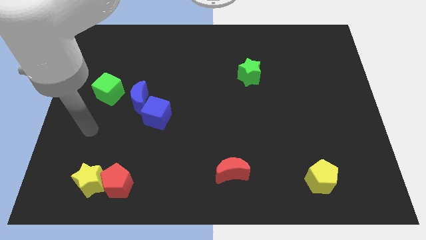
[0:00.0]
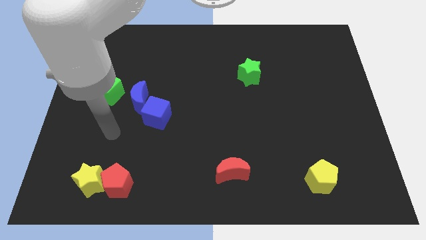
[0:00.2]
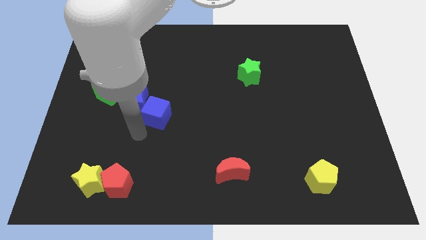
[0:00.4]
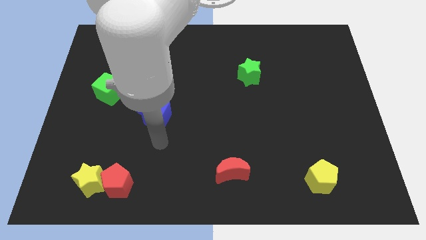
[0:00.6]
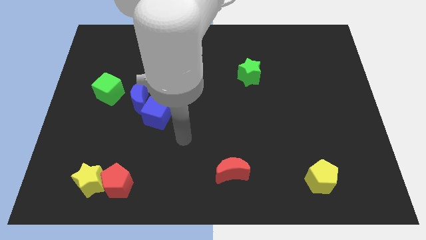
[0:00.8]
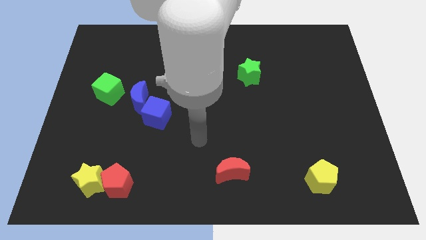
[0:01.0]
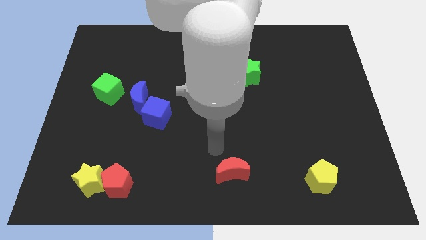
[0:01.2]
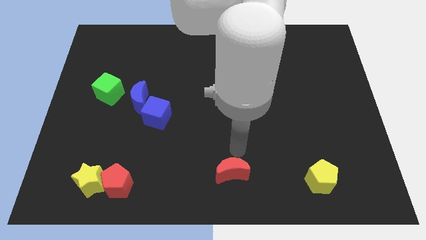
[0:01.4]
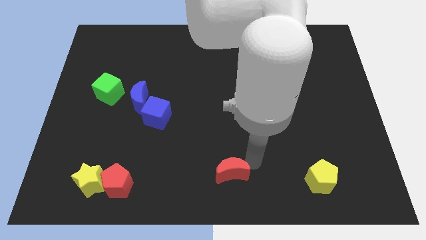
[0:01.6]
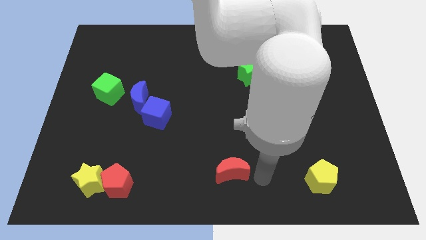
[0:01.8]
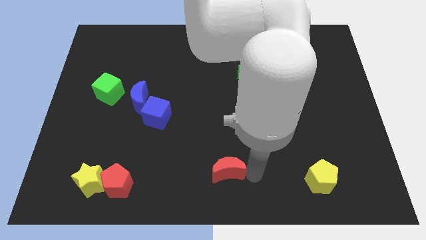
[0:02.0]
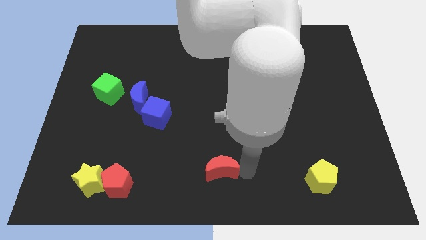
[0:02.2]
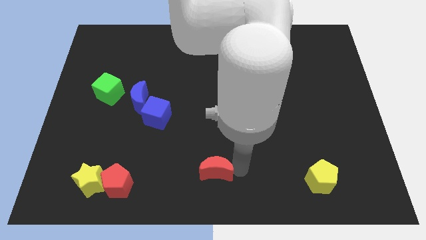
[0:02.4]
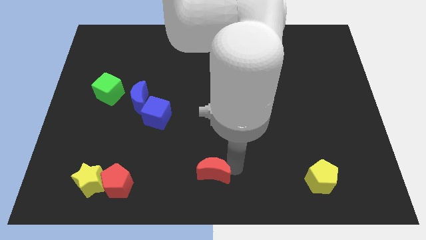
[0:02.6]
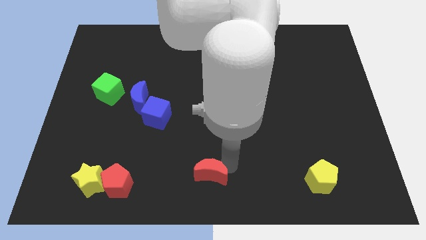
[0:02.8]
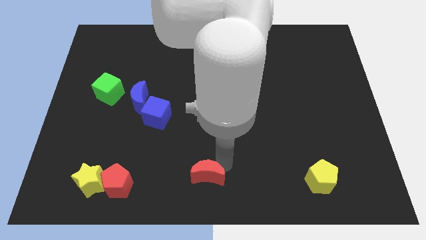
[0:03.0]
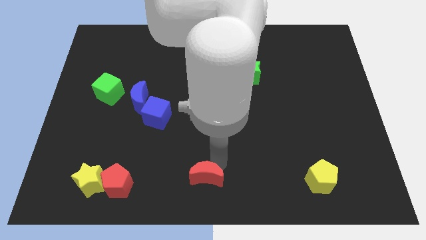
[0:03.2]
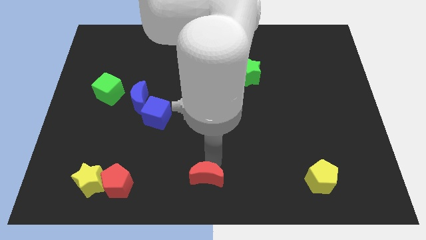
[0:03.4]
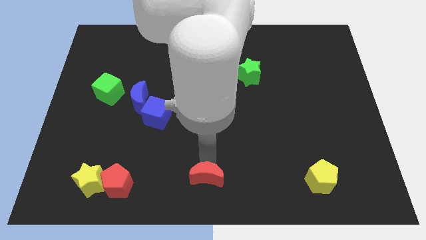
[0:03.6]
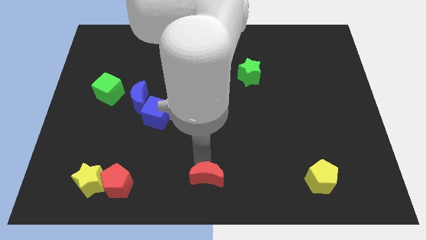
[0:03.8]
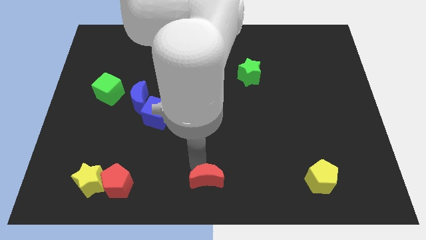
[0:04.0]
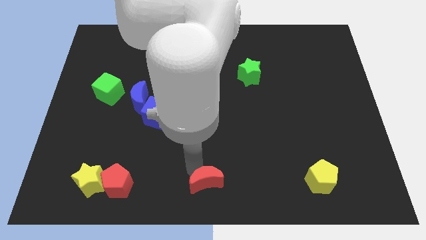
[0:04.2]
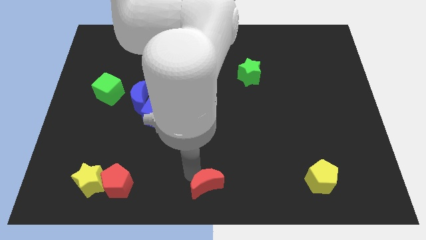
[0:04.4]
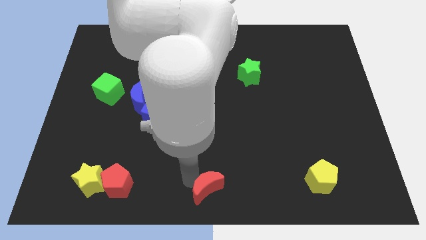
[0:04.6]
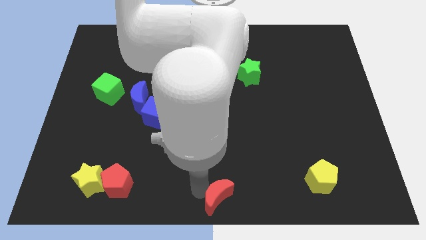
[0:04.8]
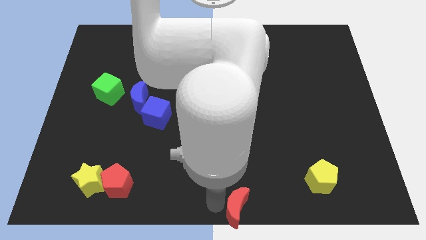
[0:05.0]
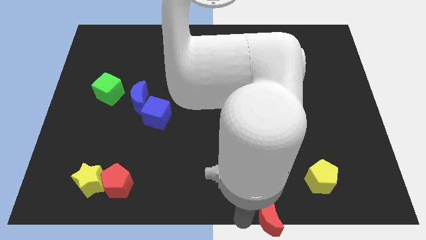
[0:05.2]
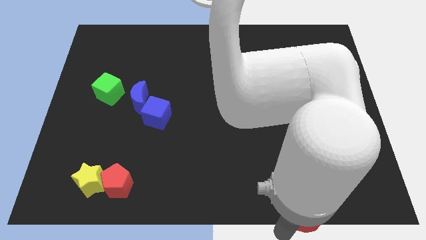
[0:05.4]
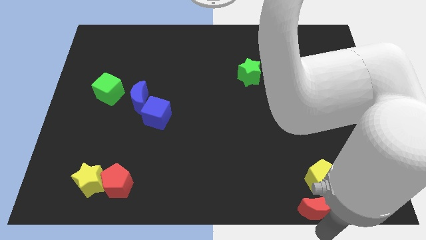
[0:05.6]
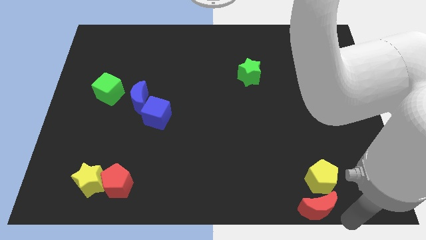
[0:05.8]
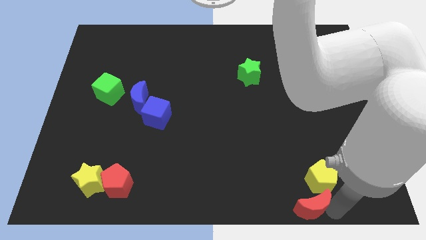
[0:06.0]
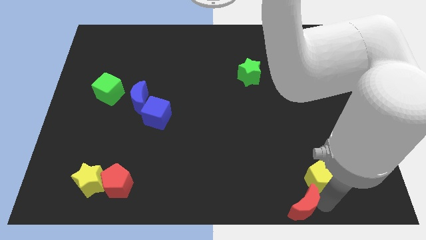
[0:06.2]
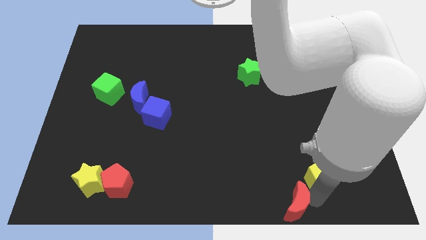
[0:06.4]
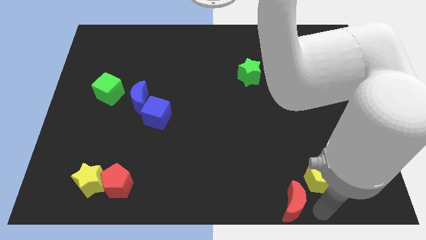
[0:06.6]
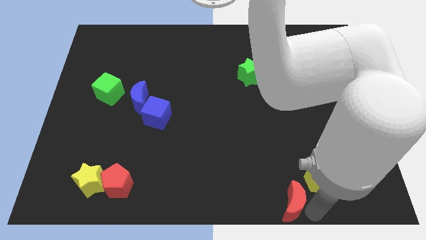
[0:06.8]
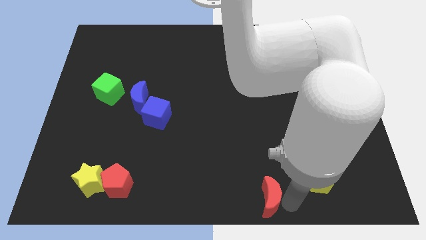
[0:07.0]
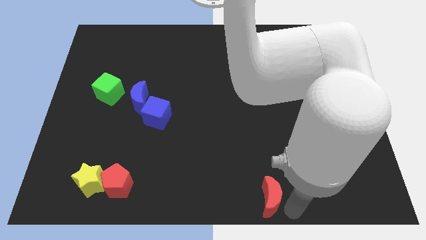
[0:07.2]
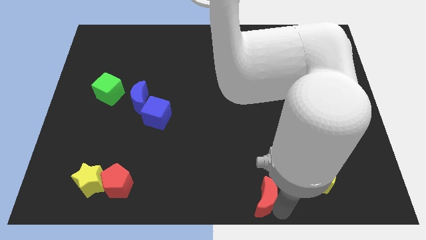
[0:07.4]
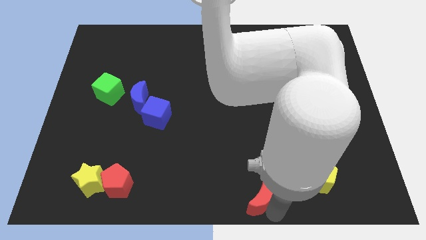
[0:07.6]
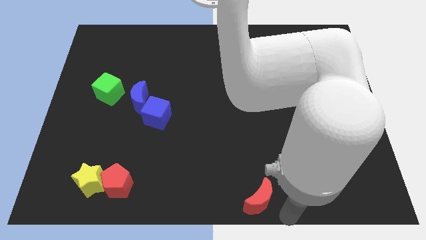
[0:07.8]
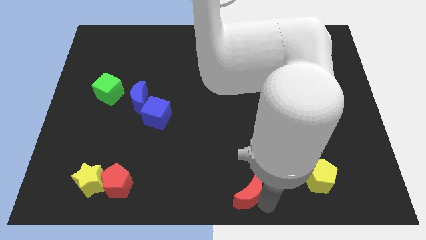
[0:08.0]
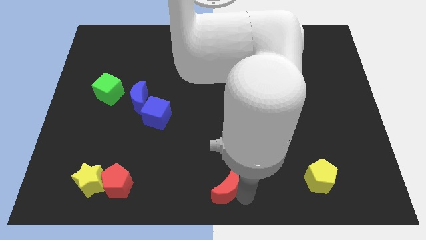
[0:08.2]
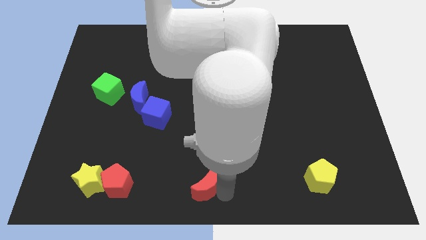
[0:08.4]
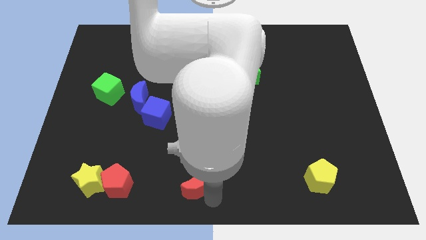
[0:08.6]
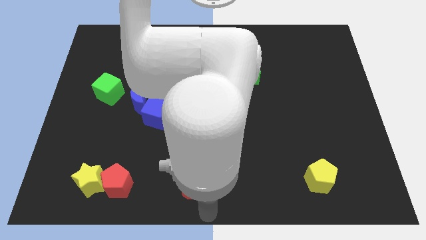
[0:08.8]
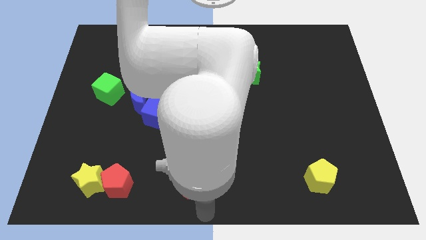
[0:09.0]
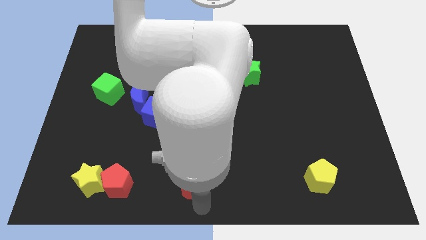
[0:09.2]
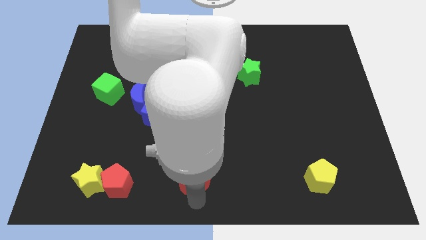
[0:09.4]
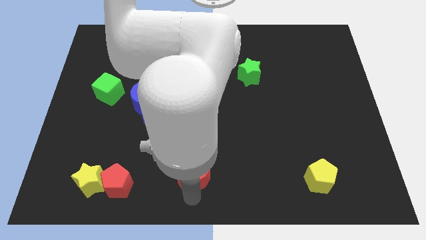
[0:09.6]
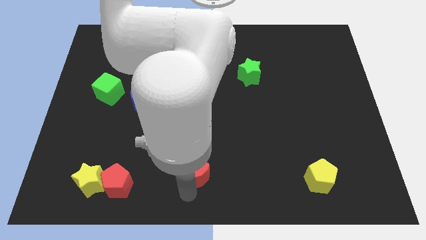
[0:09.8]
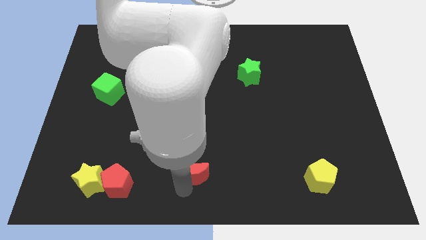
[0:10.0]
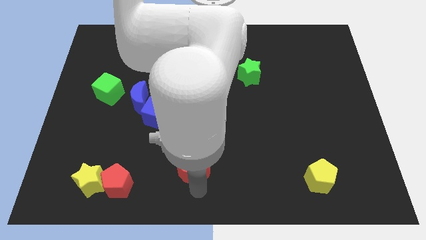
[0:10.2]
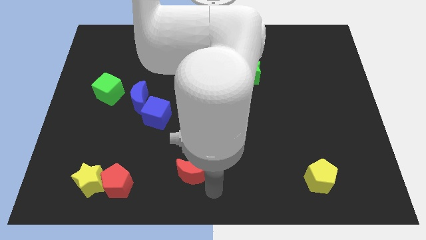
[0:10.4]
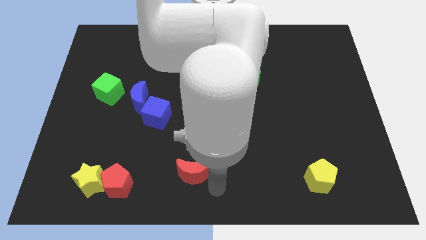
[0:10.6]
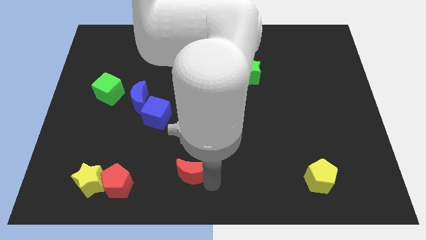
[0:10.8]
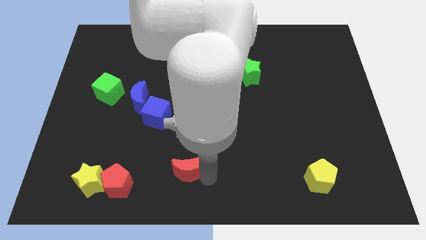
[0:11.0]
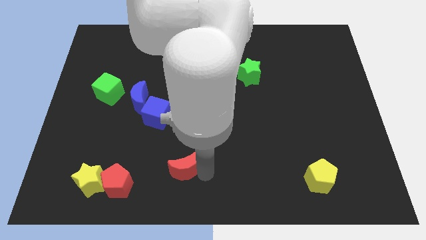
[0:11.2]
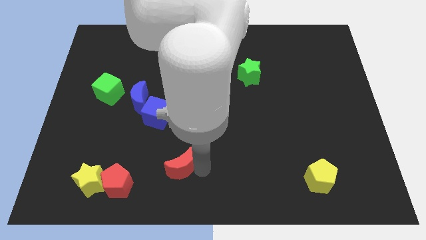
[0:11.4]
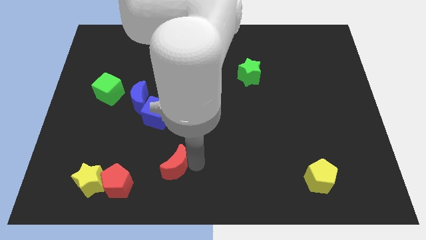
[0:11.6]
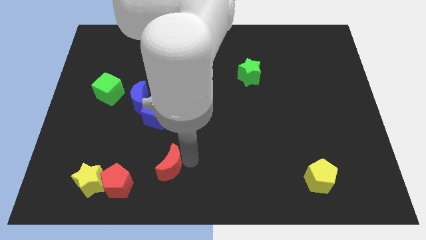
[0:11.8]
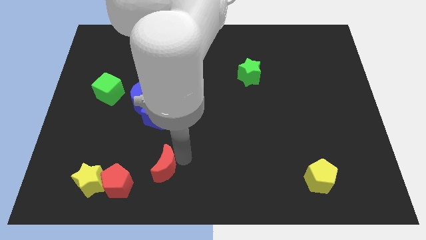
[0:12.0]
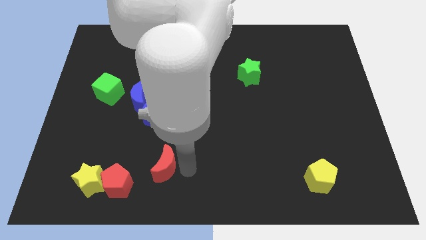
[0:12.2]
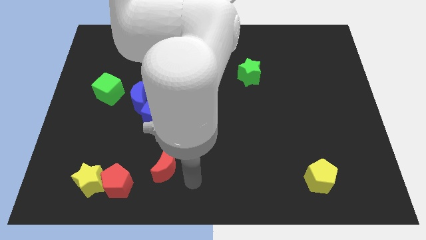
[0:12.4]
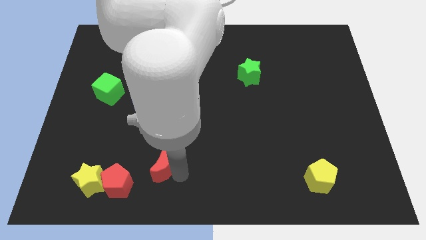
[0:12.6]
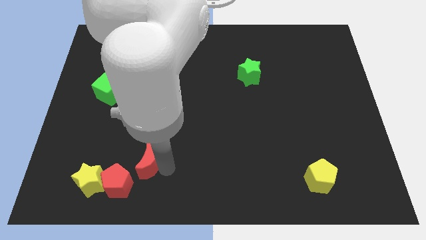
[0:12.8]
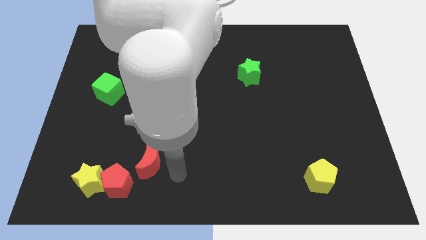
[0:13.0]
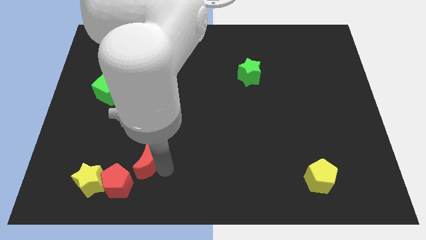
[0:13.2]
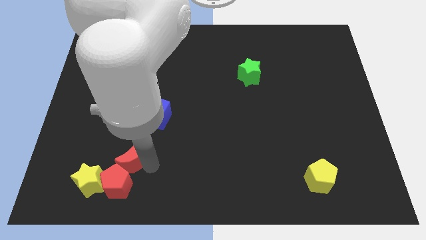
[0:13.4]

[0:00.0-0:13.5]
slide the red moon to the left

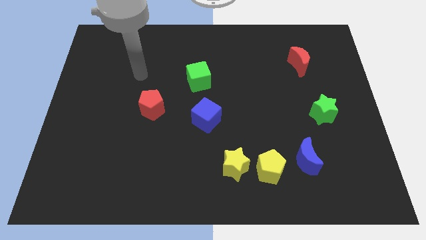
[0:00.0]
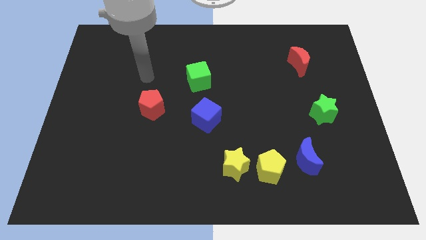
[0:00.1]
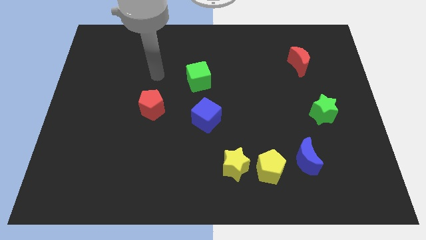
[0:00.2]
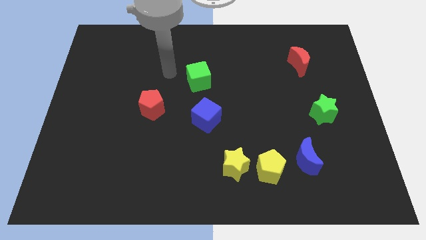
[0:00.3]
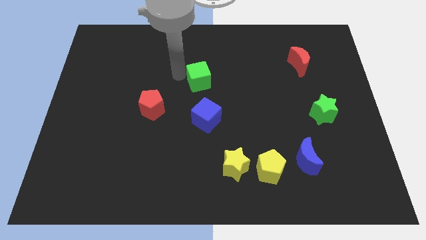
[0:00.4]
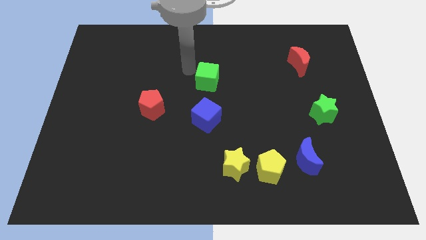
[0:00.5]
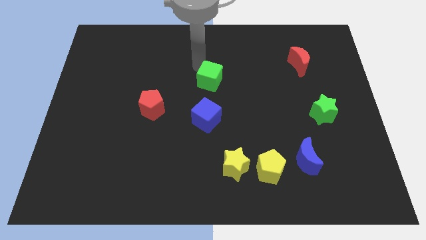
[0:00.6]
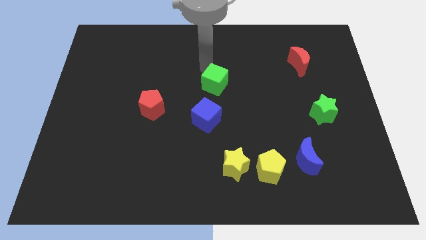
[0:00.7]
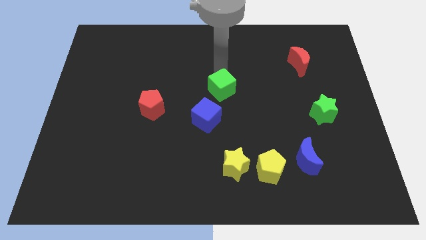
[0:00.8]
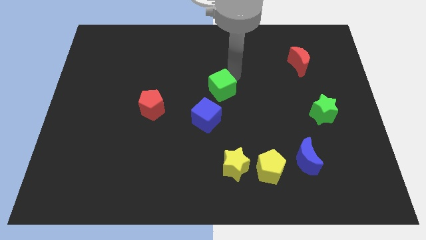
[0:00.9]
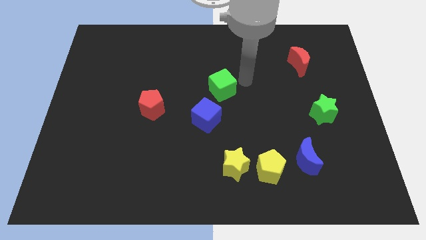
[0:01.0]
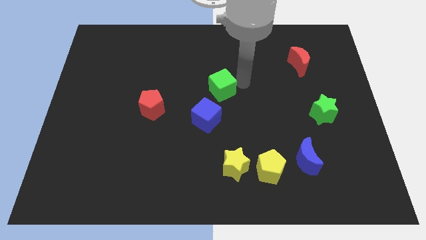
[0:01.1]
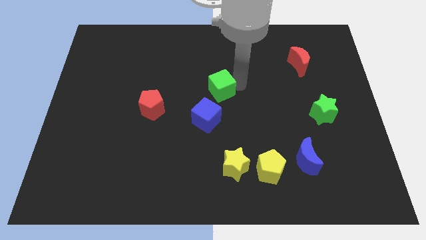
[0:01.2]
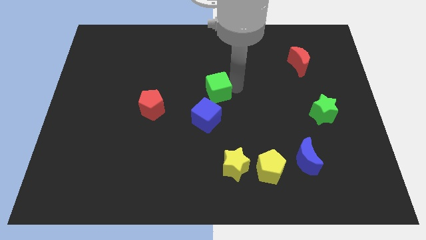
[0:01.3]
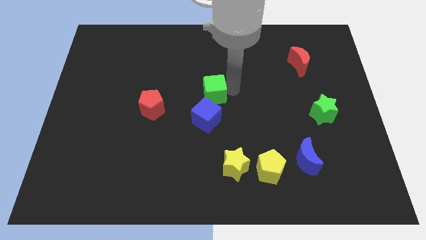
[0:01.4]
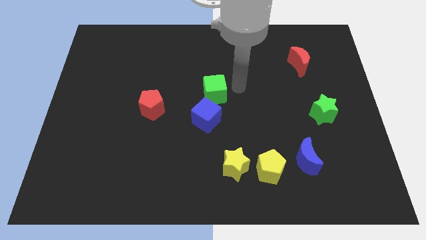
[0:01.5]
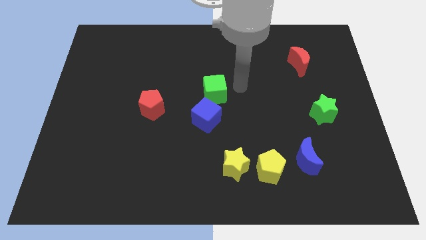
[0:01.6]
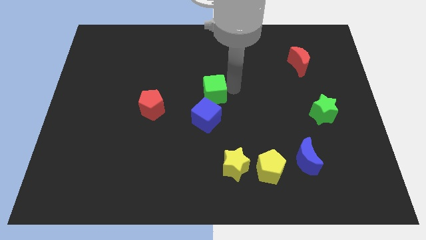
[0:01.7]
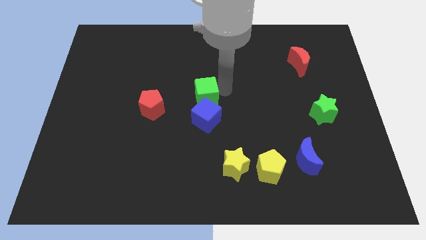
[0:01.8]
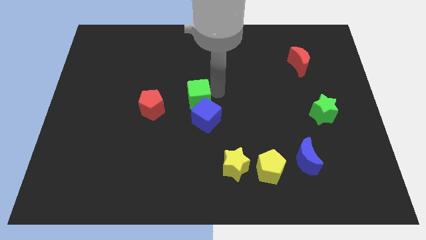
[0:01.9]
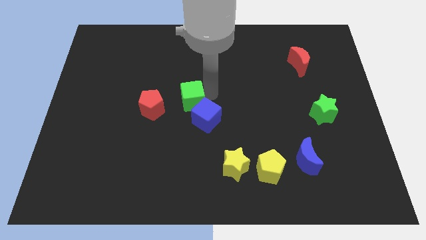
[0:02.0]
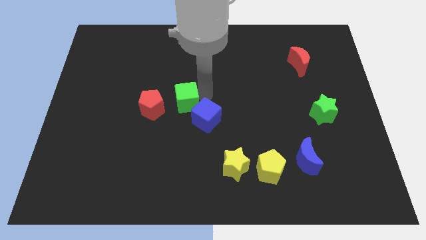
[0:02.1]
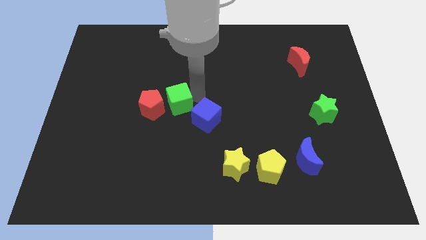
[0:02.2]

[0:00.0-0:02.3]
slide the green cube down and to the left diagonally slightly
